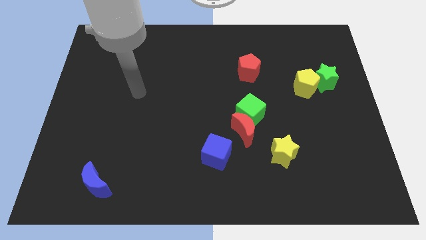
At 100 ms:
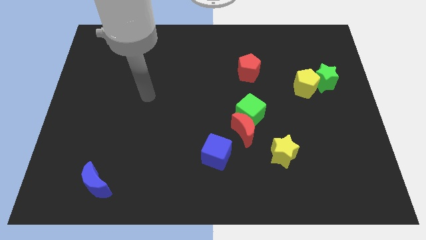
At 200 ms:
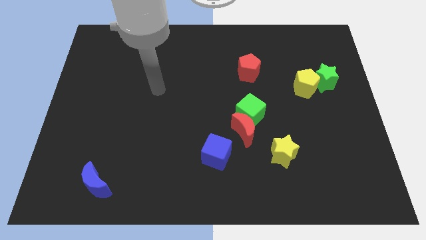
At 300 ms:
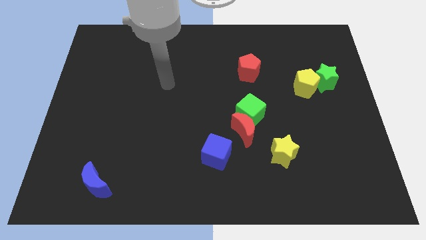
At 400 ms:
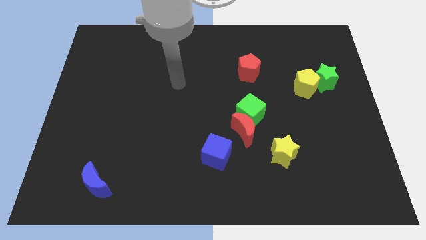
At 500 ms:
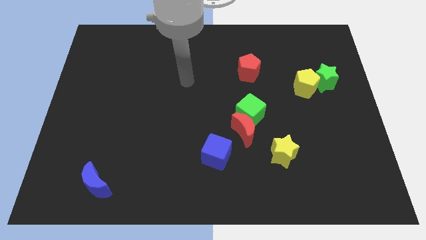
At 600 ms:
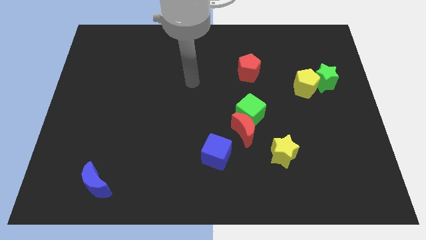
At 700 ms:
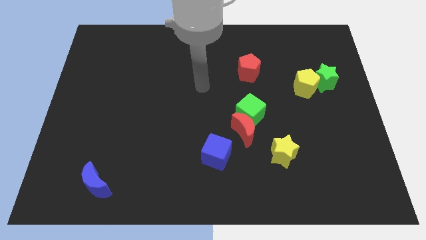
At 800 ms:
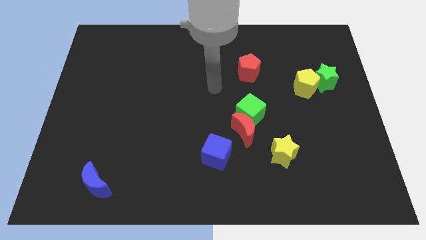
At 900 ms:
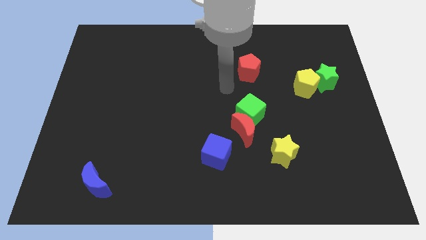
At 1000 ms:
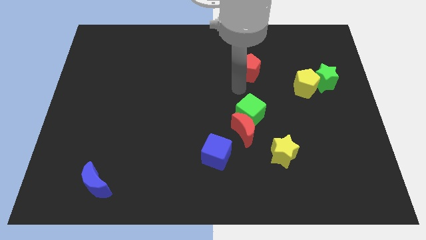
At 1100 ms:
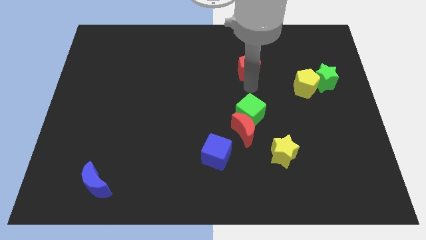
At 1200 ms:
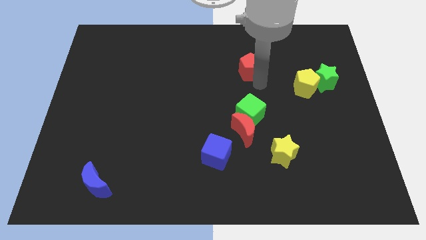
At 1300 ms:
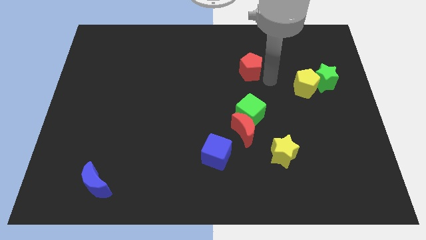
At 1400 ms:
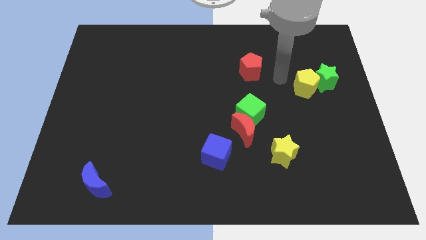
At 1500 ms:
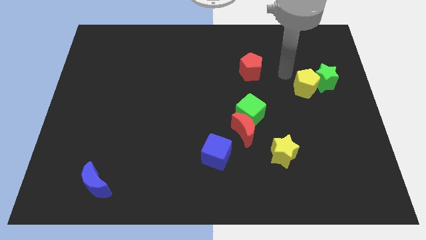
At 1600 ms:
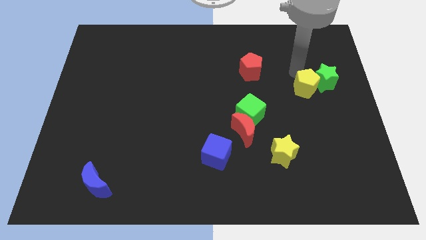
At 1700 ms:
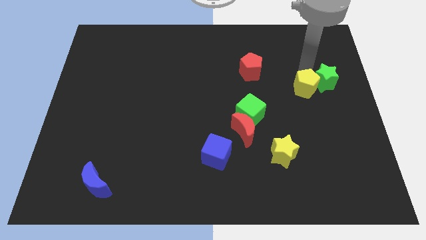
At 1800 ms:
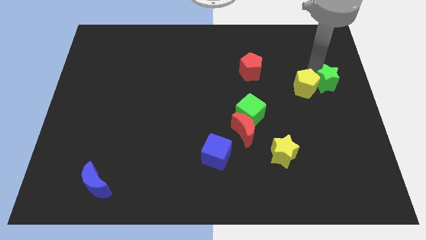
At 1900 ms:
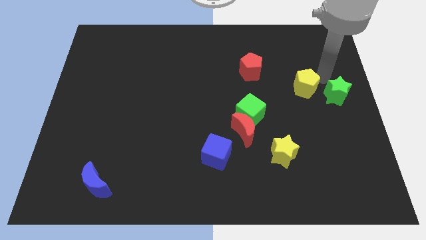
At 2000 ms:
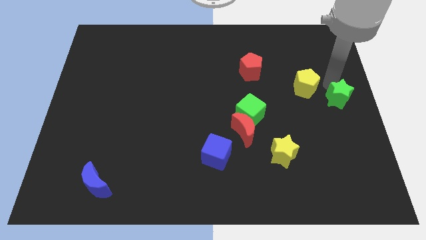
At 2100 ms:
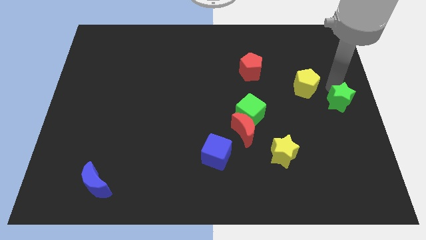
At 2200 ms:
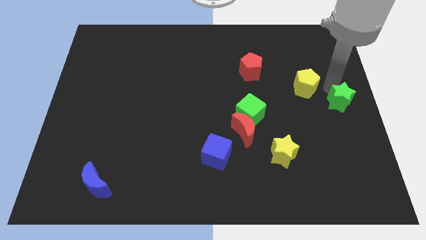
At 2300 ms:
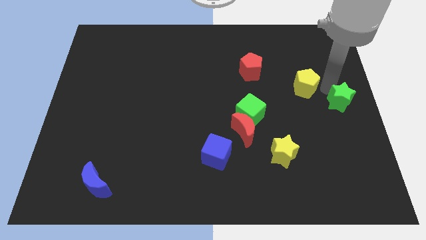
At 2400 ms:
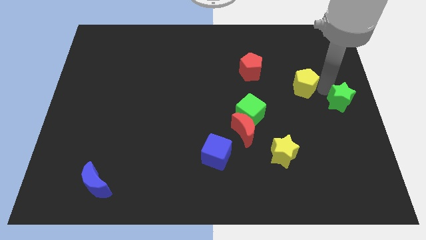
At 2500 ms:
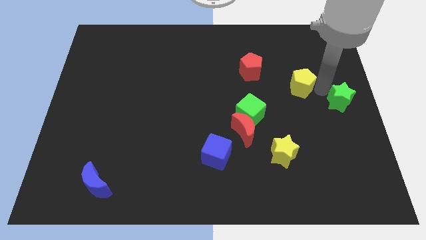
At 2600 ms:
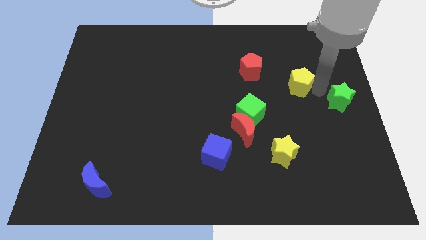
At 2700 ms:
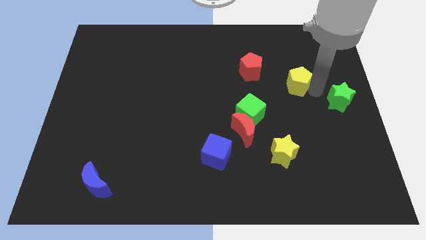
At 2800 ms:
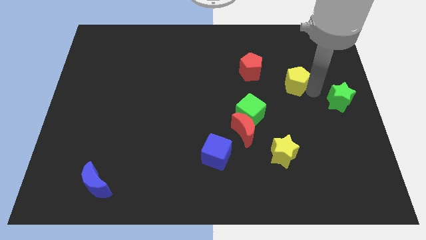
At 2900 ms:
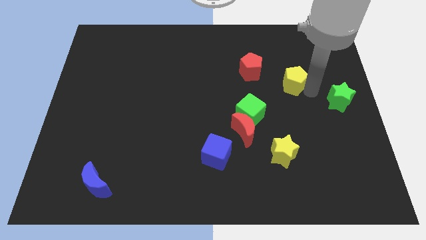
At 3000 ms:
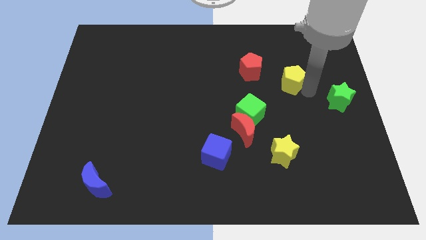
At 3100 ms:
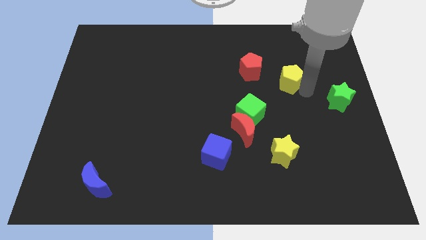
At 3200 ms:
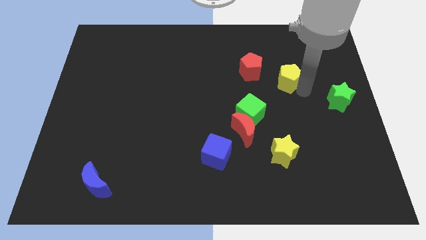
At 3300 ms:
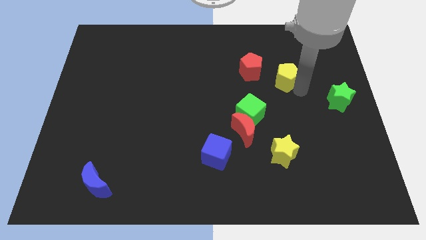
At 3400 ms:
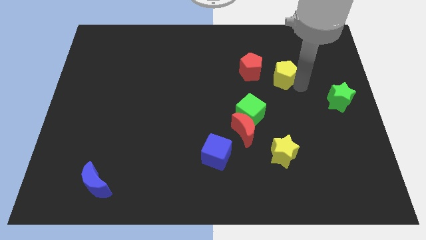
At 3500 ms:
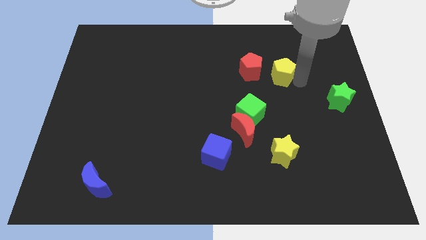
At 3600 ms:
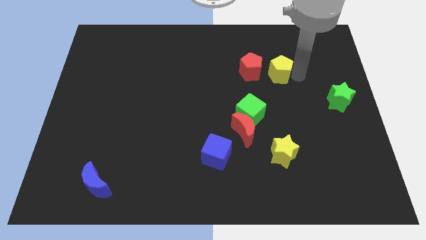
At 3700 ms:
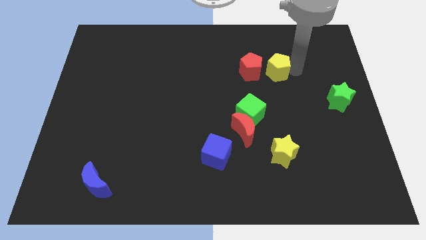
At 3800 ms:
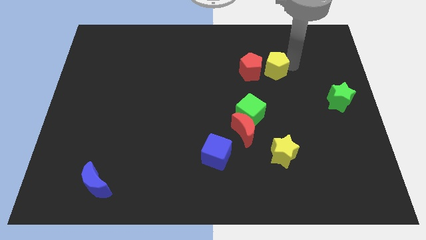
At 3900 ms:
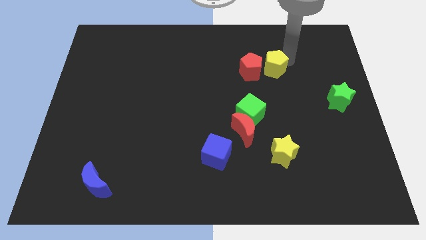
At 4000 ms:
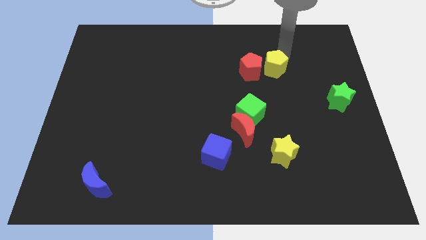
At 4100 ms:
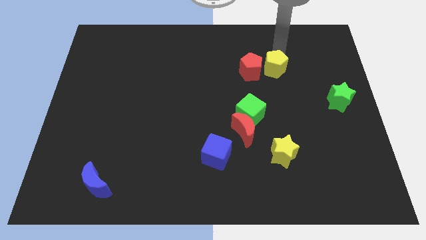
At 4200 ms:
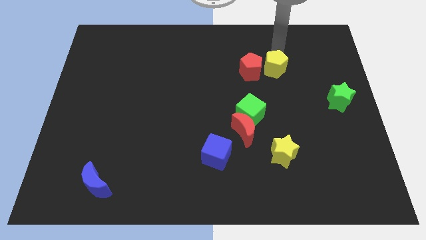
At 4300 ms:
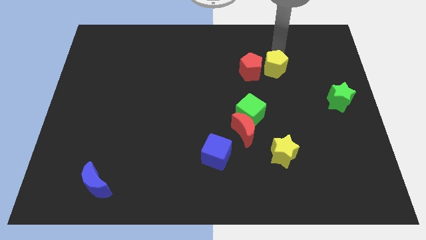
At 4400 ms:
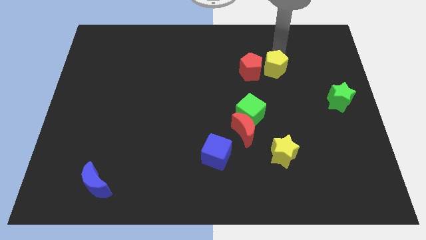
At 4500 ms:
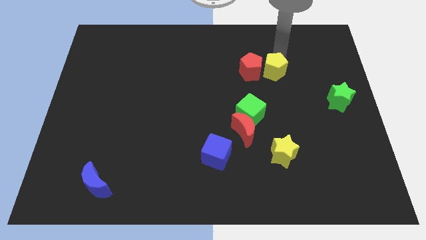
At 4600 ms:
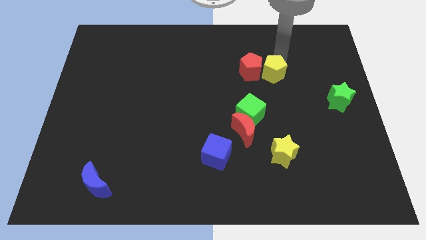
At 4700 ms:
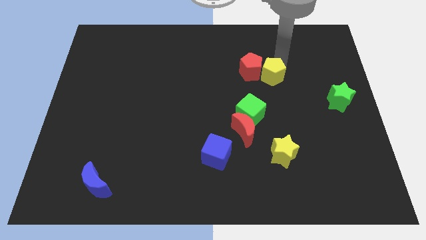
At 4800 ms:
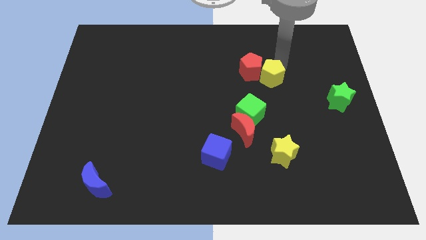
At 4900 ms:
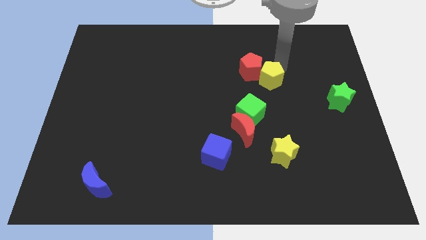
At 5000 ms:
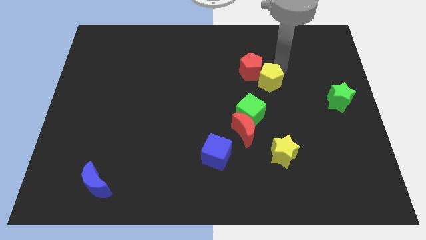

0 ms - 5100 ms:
put the yellow pentagon diagonally up and to the right of the green cube

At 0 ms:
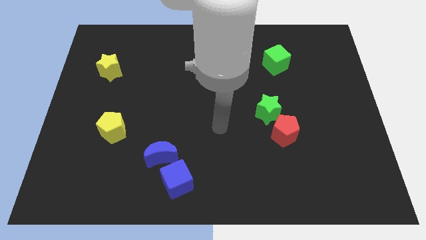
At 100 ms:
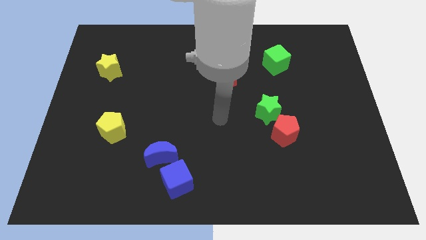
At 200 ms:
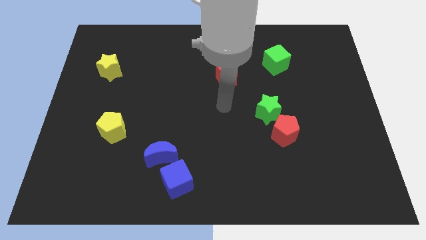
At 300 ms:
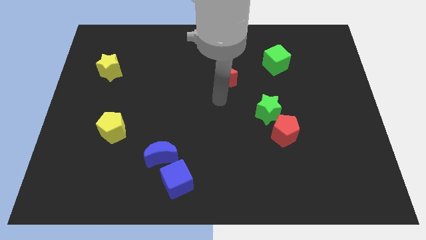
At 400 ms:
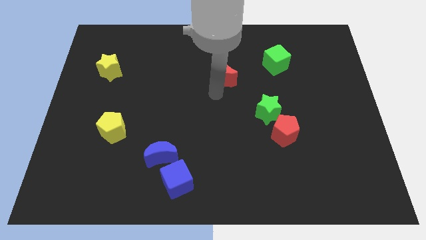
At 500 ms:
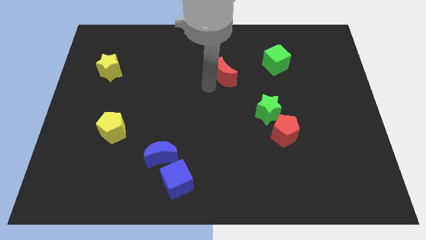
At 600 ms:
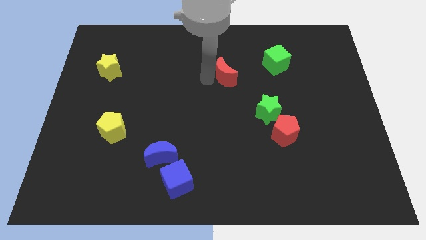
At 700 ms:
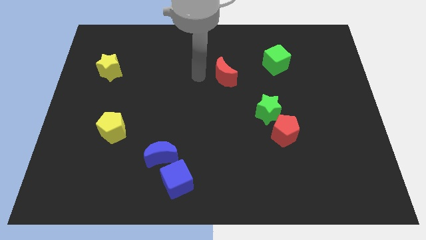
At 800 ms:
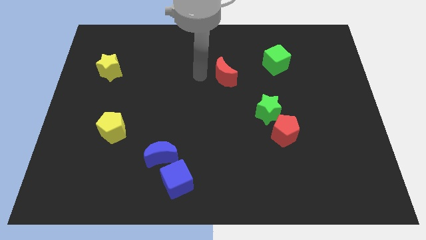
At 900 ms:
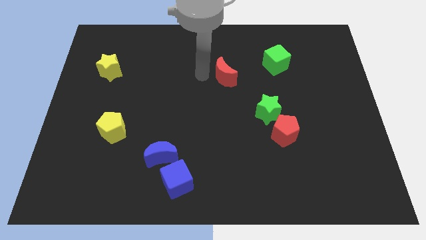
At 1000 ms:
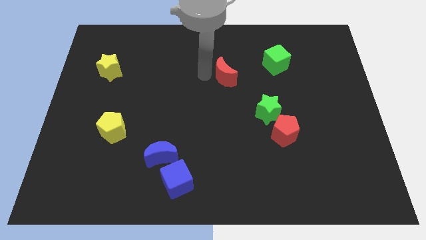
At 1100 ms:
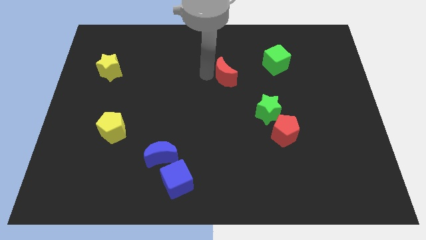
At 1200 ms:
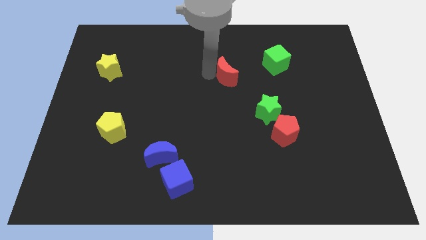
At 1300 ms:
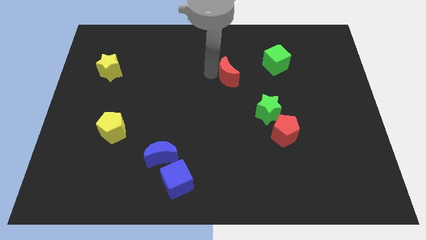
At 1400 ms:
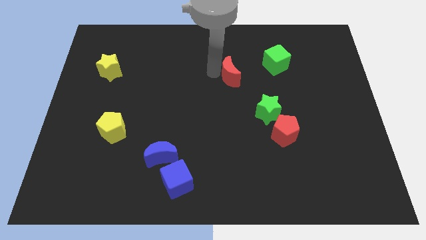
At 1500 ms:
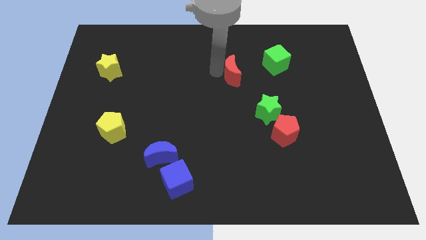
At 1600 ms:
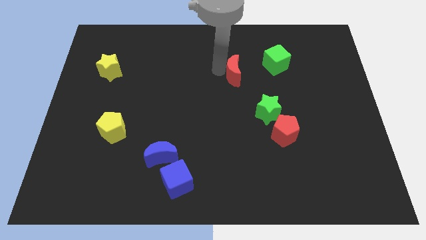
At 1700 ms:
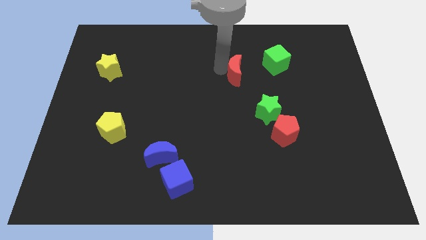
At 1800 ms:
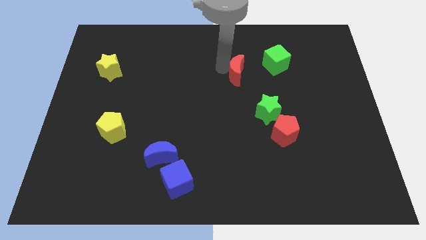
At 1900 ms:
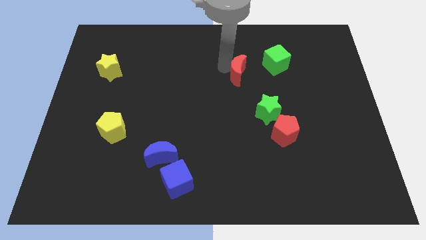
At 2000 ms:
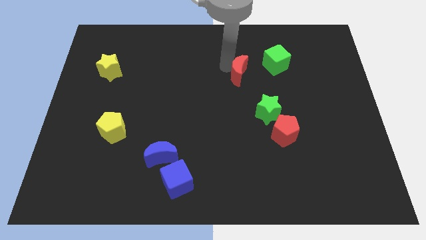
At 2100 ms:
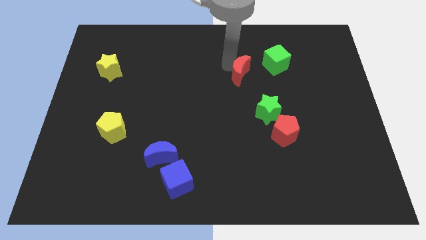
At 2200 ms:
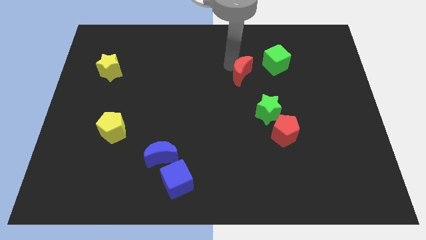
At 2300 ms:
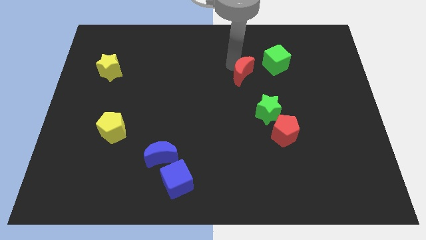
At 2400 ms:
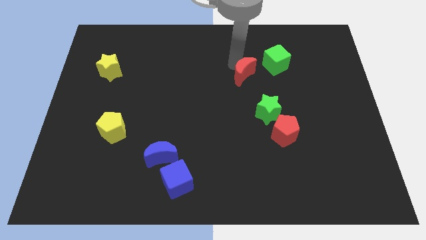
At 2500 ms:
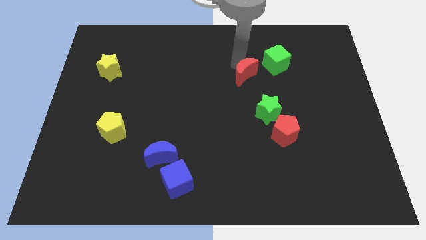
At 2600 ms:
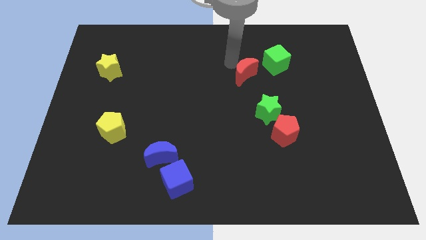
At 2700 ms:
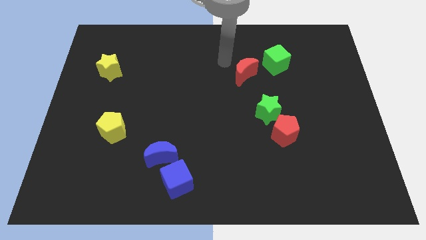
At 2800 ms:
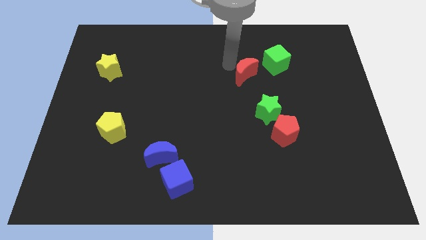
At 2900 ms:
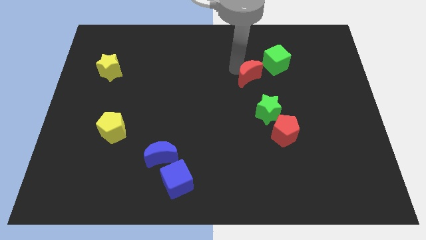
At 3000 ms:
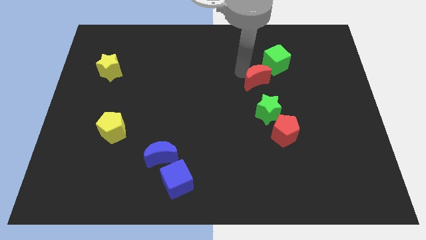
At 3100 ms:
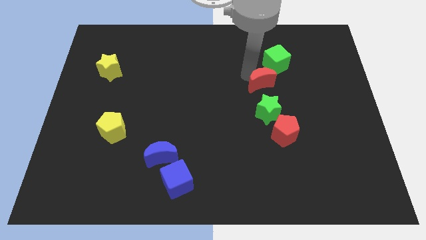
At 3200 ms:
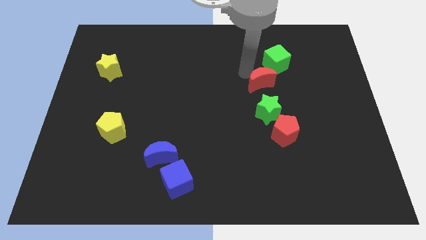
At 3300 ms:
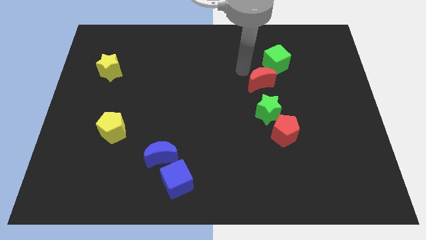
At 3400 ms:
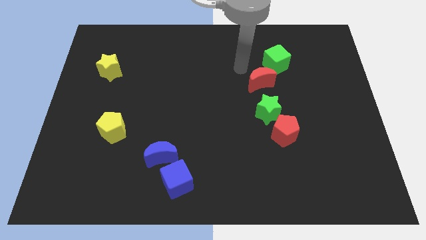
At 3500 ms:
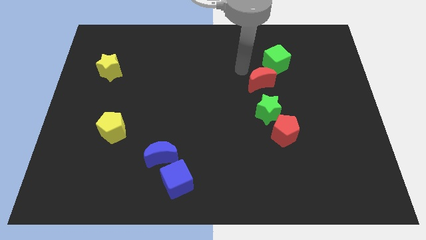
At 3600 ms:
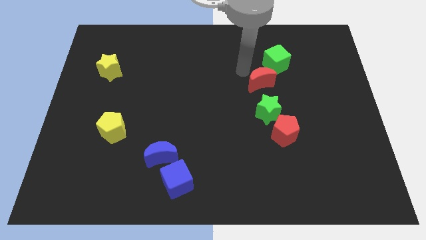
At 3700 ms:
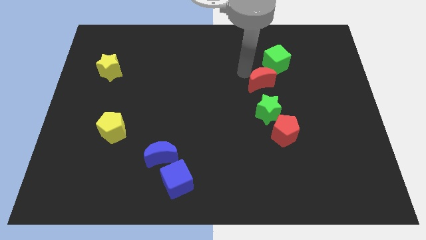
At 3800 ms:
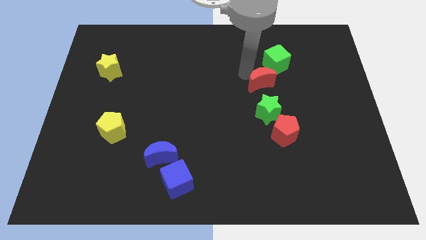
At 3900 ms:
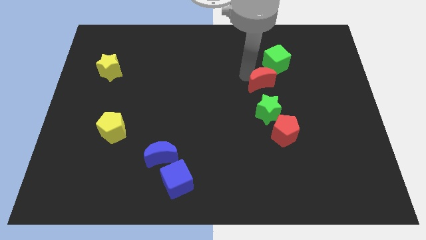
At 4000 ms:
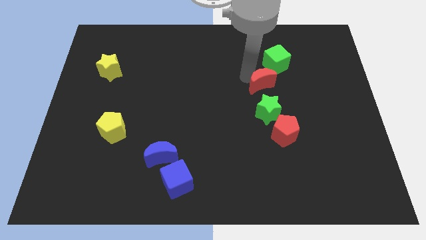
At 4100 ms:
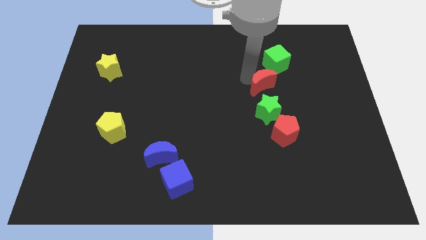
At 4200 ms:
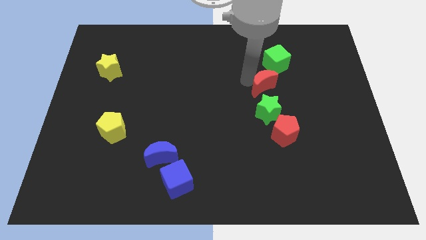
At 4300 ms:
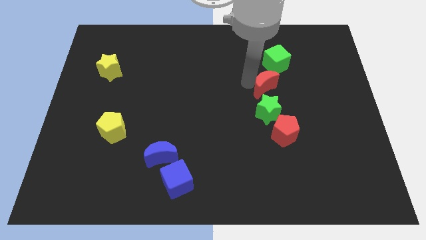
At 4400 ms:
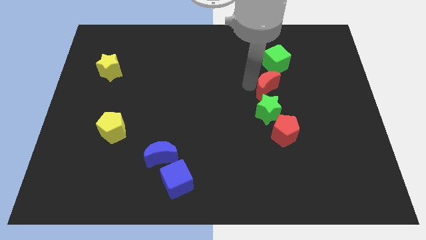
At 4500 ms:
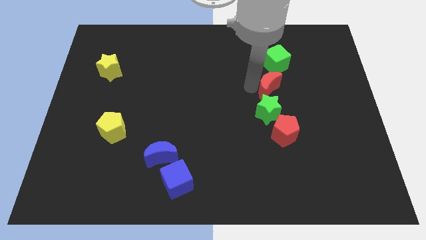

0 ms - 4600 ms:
slide the red moon to the top right of the green star
